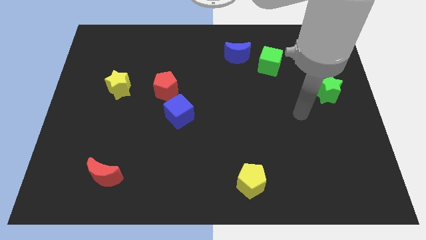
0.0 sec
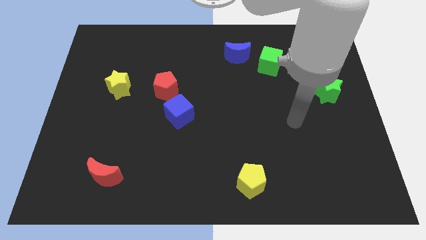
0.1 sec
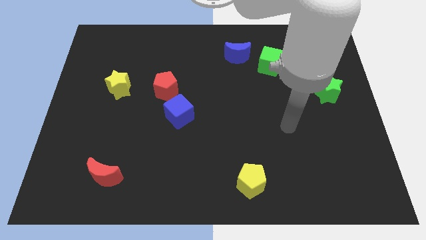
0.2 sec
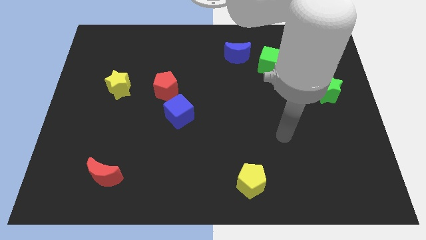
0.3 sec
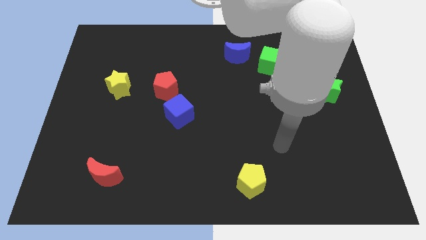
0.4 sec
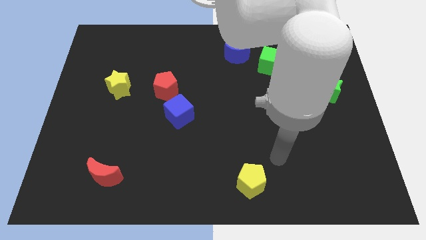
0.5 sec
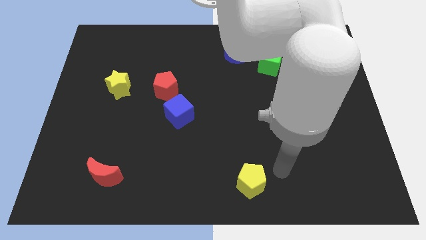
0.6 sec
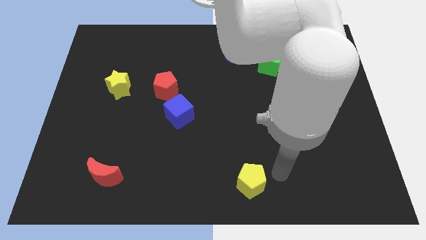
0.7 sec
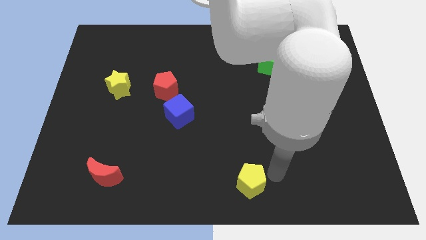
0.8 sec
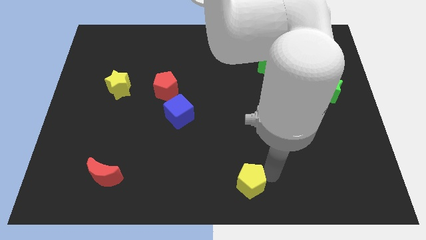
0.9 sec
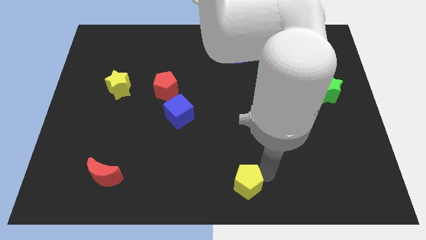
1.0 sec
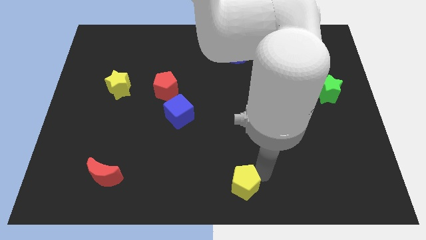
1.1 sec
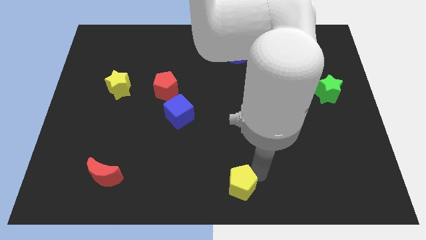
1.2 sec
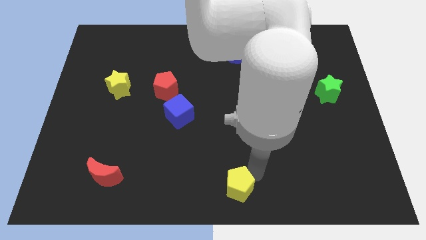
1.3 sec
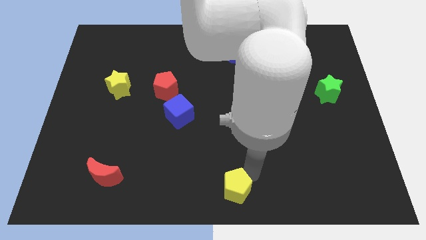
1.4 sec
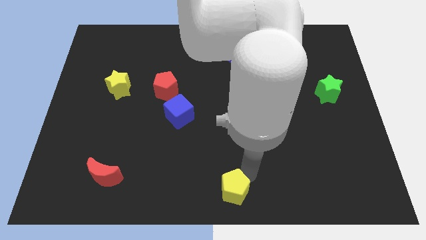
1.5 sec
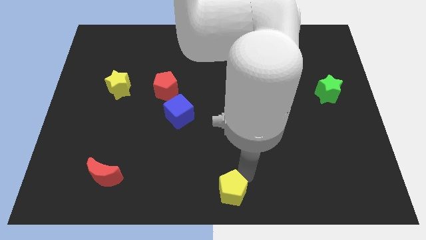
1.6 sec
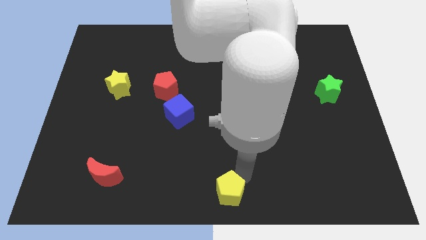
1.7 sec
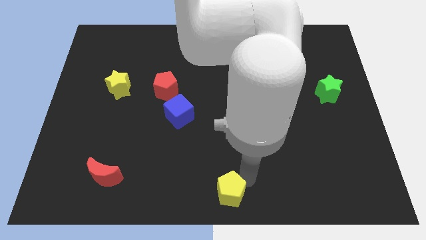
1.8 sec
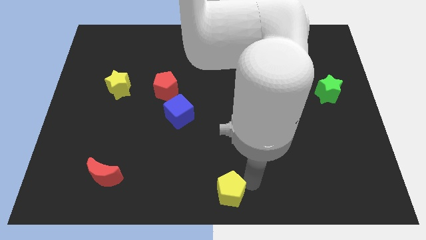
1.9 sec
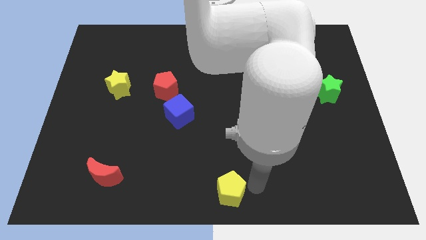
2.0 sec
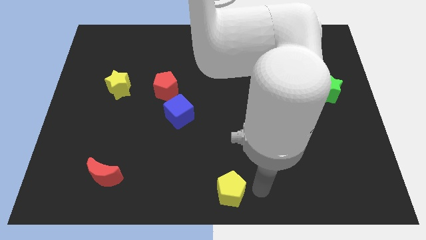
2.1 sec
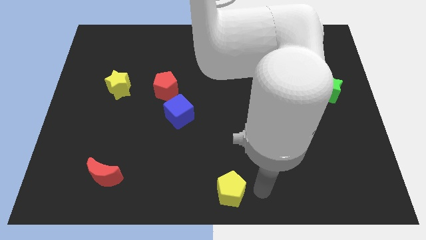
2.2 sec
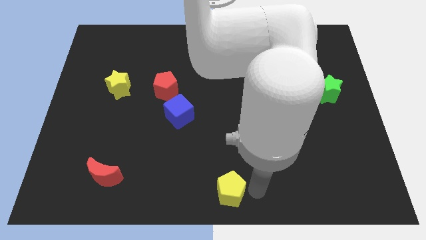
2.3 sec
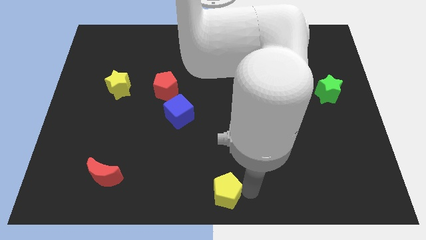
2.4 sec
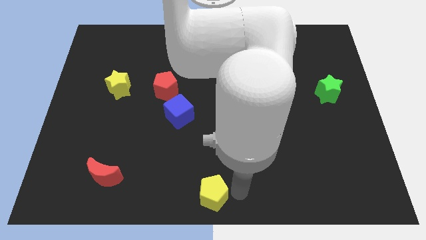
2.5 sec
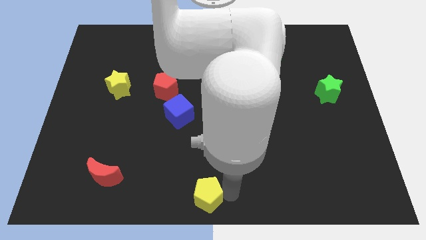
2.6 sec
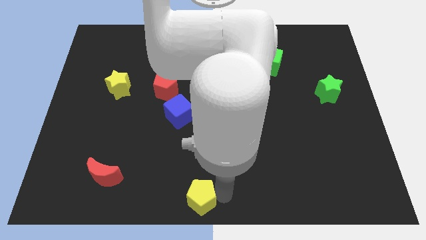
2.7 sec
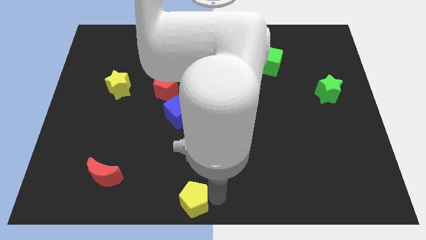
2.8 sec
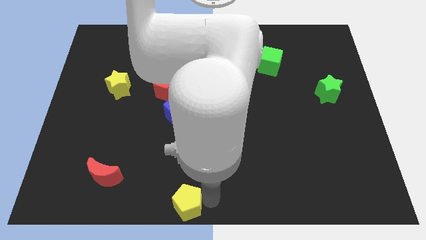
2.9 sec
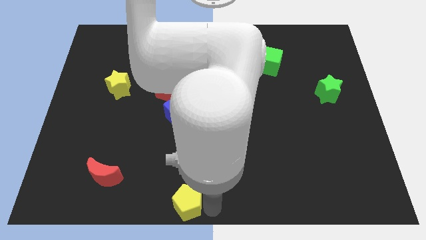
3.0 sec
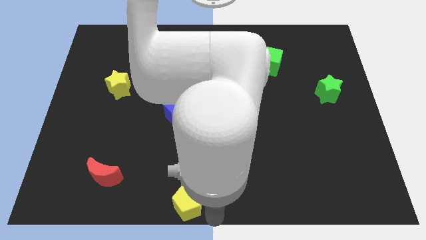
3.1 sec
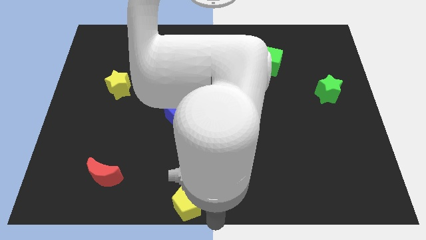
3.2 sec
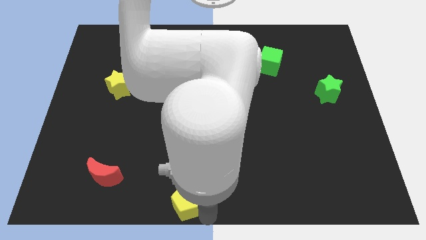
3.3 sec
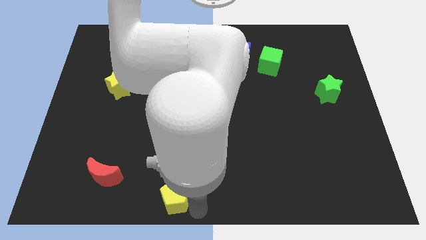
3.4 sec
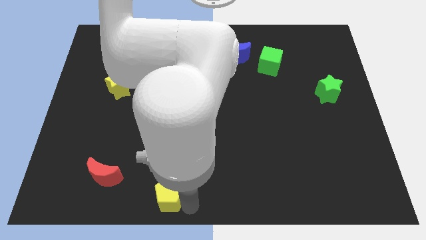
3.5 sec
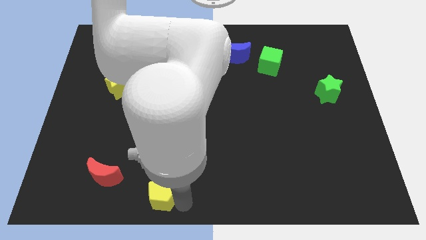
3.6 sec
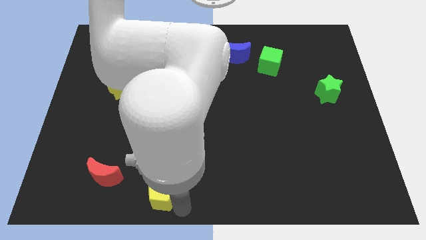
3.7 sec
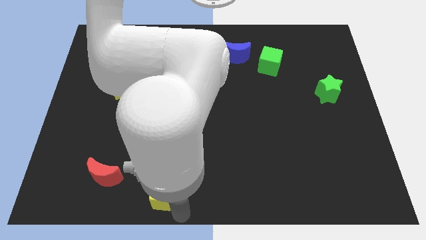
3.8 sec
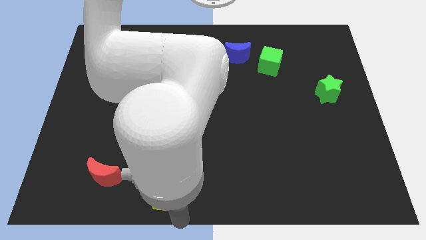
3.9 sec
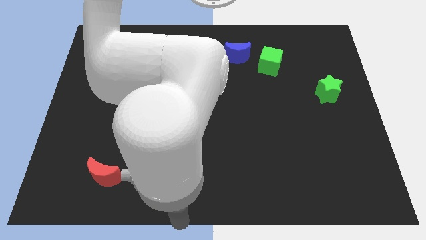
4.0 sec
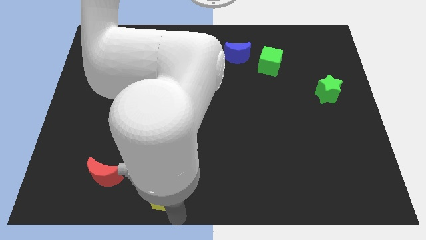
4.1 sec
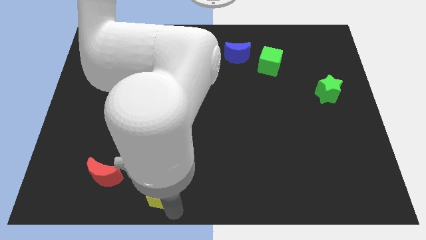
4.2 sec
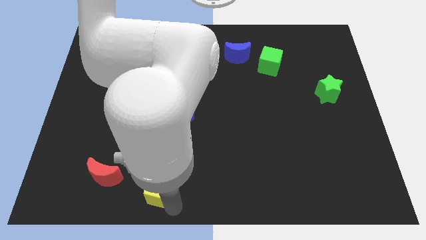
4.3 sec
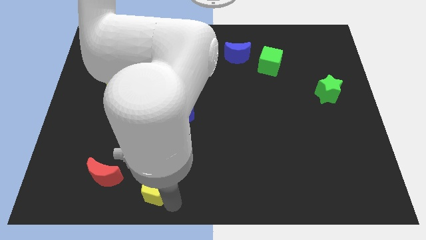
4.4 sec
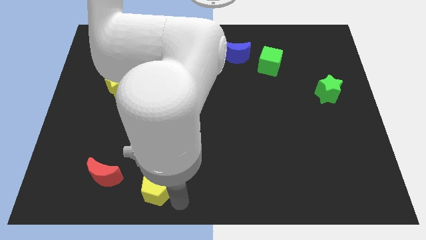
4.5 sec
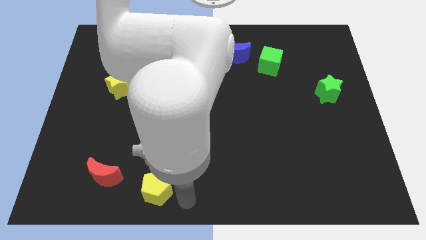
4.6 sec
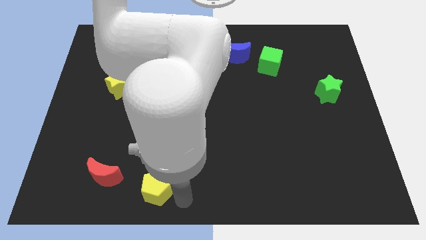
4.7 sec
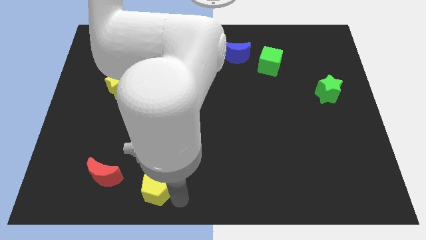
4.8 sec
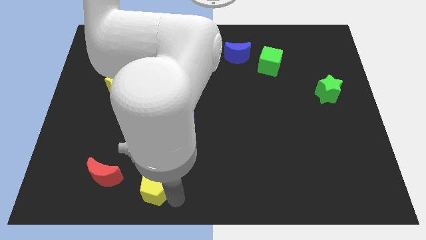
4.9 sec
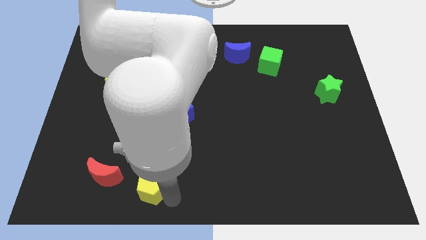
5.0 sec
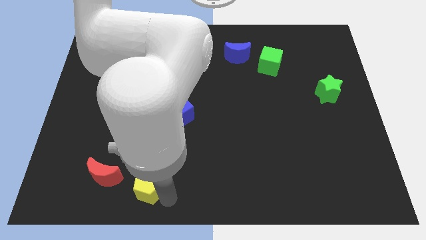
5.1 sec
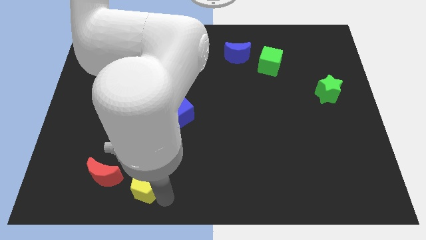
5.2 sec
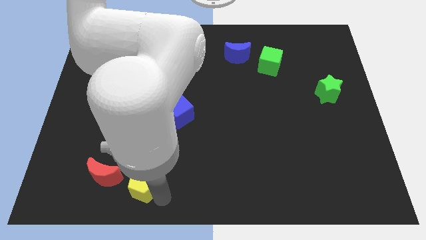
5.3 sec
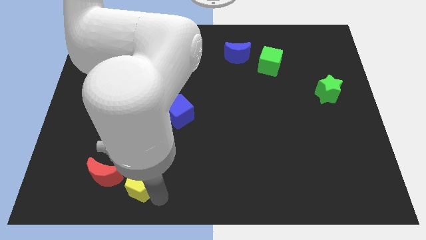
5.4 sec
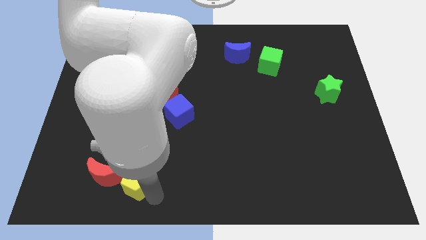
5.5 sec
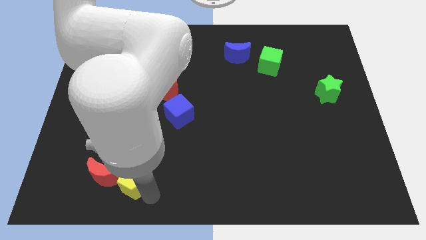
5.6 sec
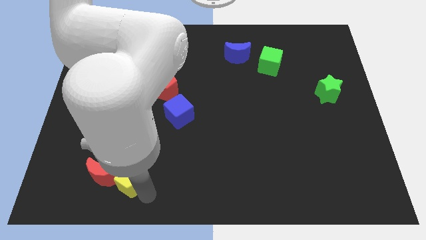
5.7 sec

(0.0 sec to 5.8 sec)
move the yellow pentagon next to the red moon

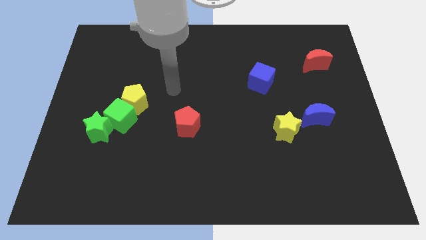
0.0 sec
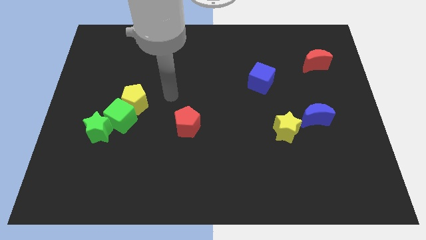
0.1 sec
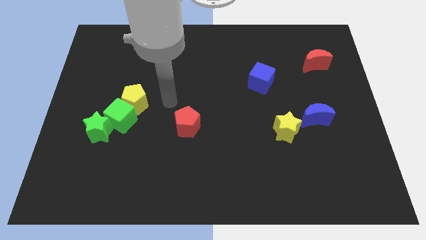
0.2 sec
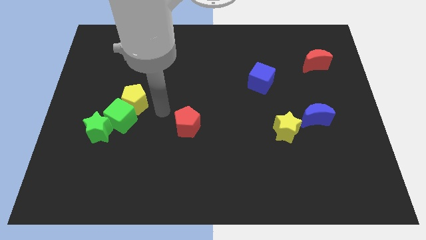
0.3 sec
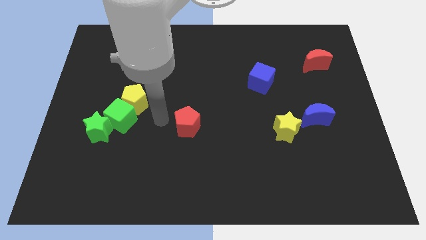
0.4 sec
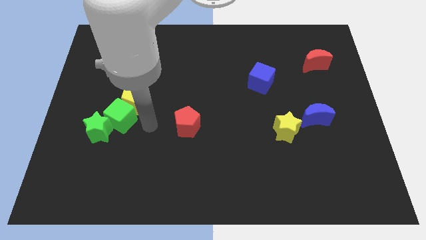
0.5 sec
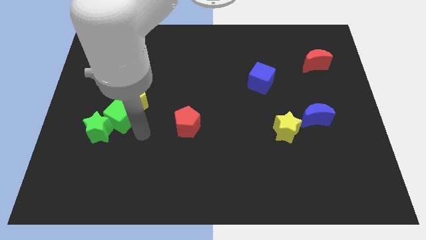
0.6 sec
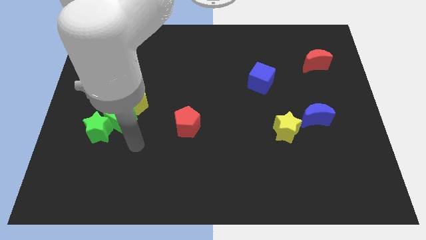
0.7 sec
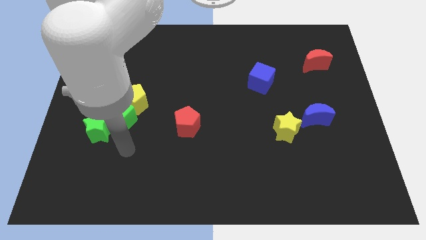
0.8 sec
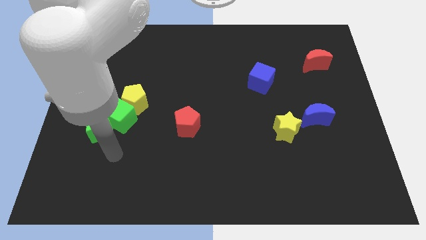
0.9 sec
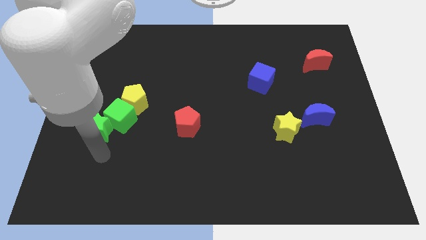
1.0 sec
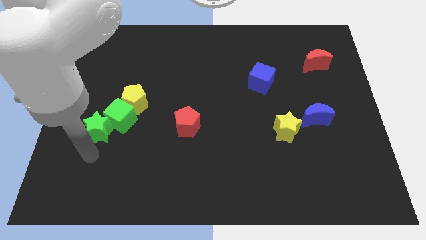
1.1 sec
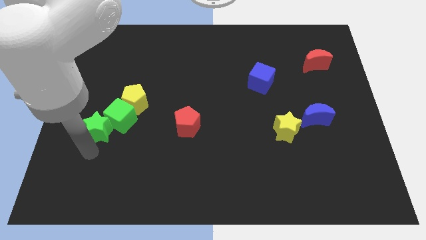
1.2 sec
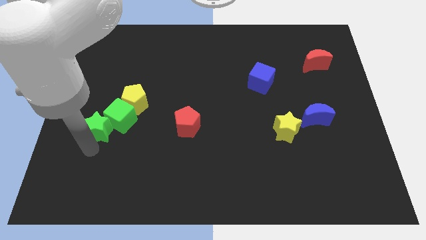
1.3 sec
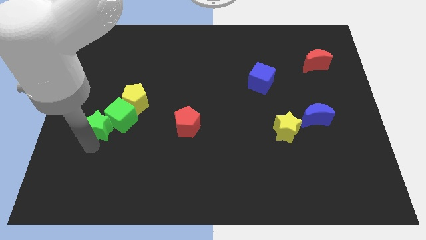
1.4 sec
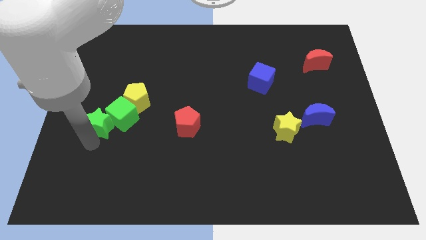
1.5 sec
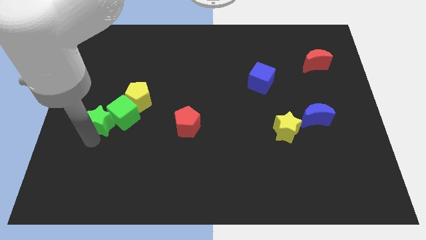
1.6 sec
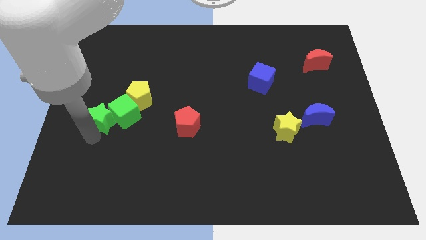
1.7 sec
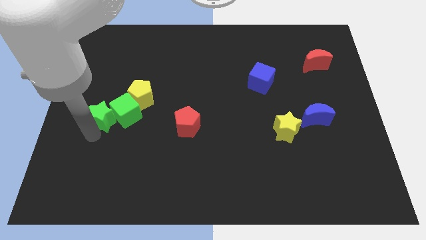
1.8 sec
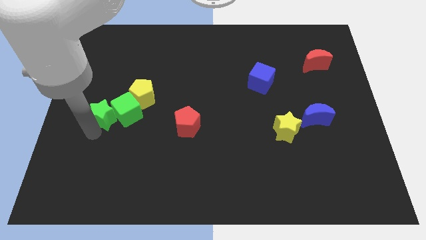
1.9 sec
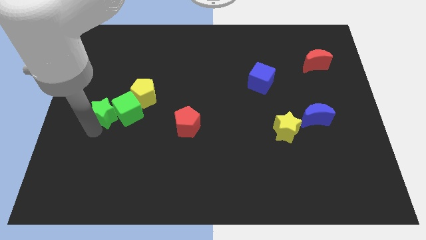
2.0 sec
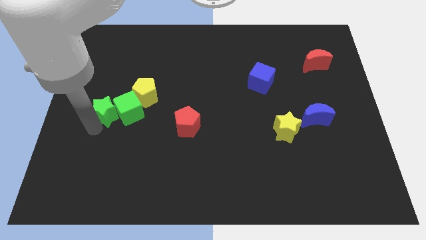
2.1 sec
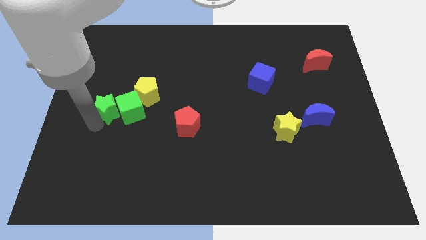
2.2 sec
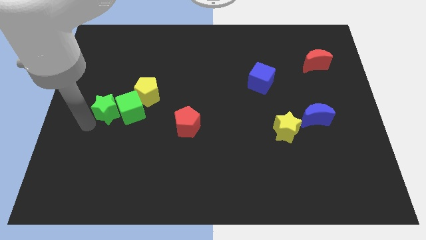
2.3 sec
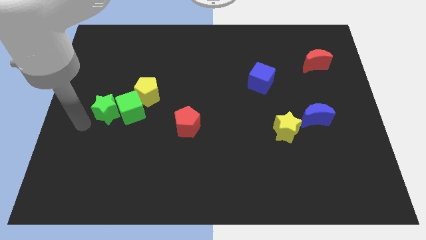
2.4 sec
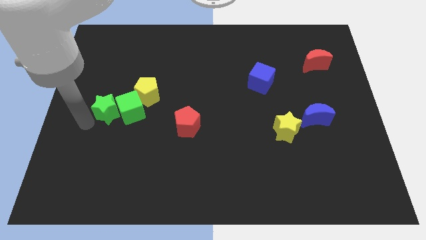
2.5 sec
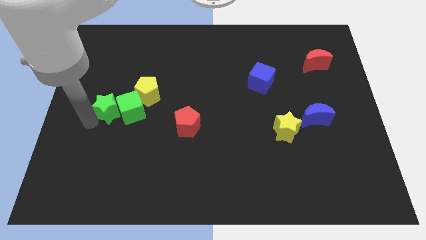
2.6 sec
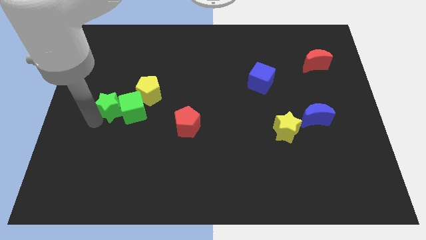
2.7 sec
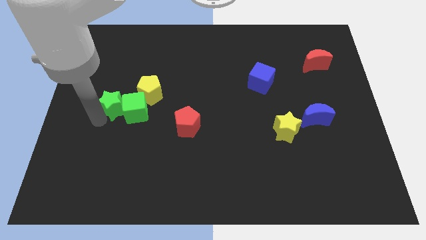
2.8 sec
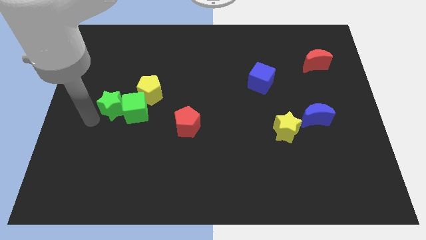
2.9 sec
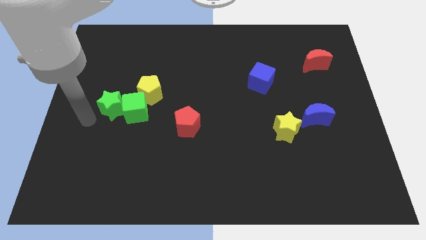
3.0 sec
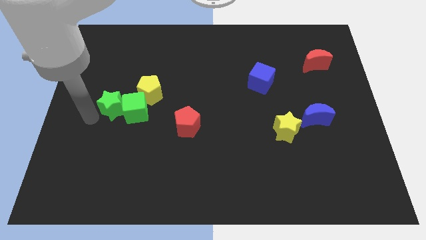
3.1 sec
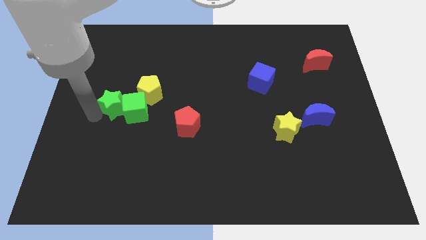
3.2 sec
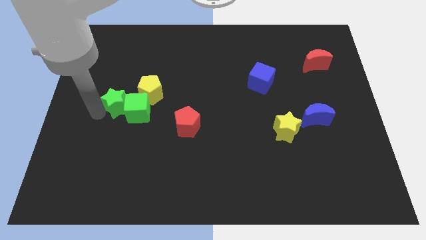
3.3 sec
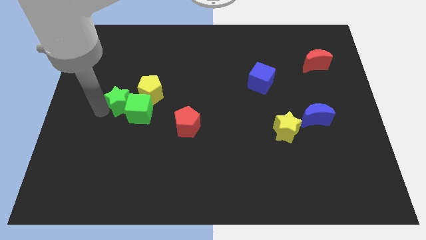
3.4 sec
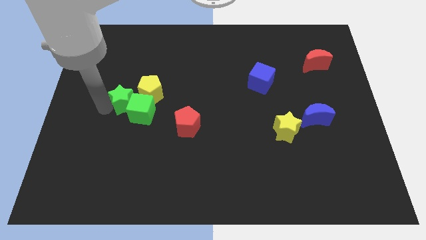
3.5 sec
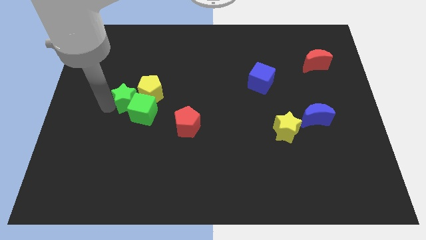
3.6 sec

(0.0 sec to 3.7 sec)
move the green star to the yellow pentagon
